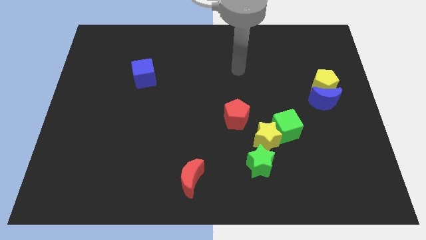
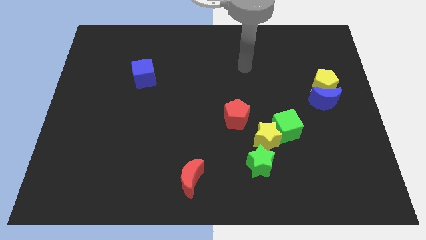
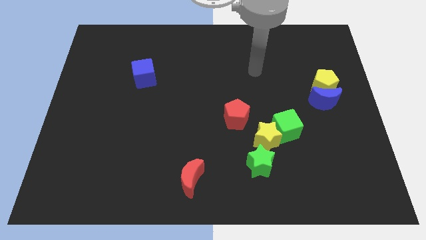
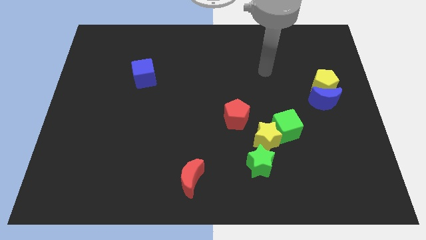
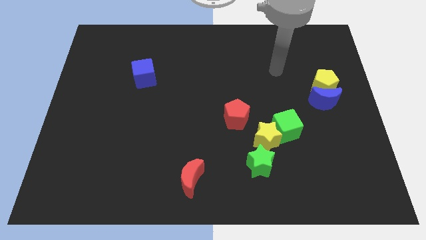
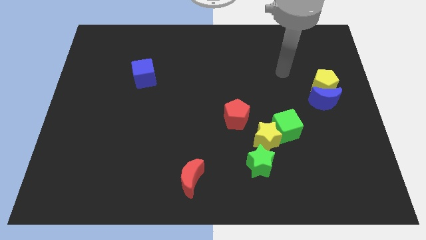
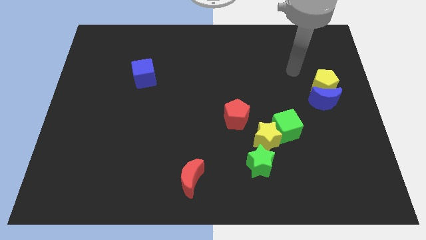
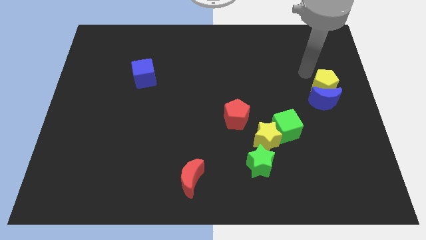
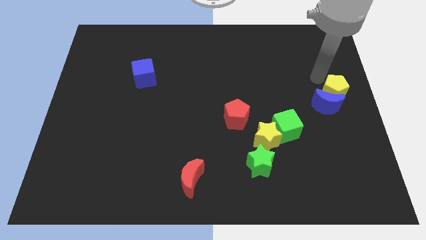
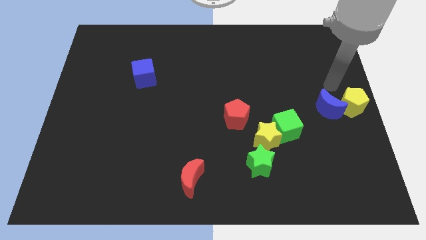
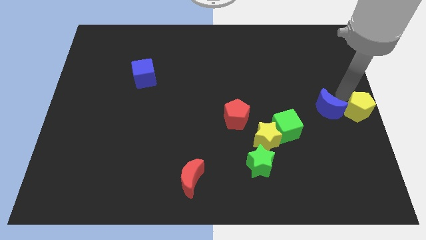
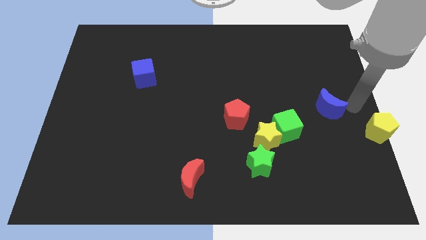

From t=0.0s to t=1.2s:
move the blue moon away from the yellow pentagon

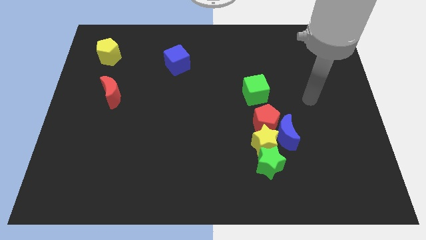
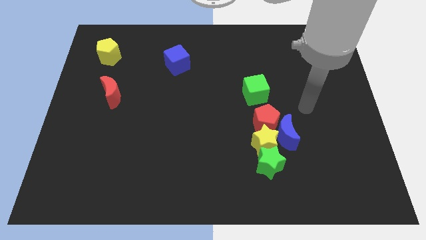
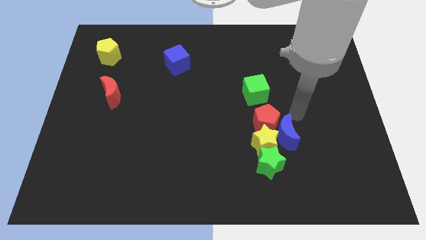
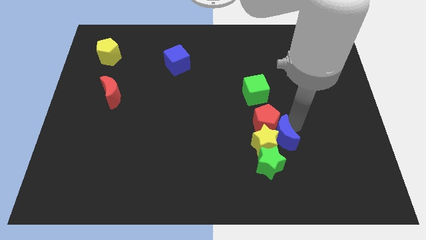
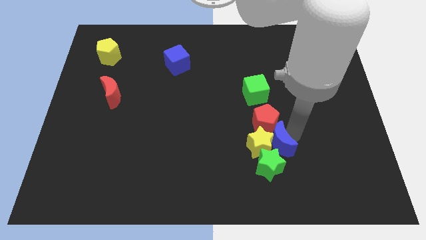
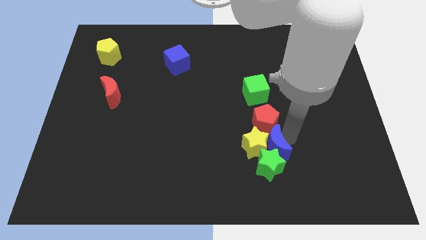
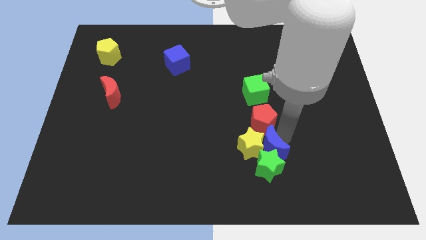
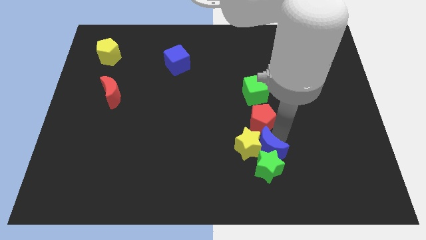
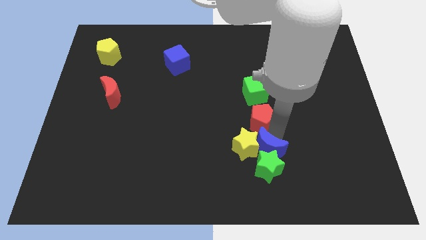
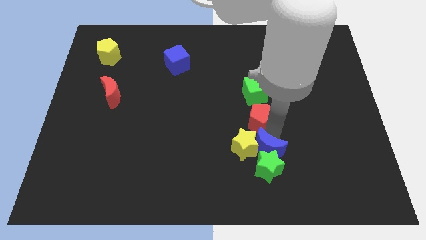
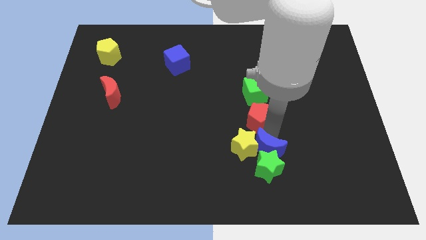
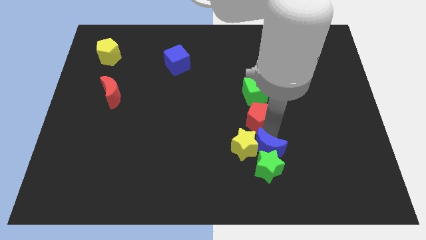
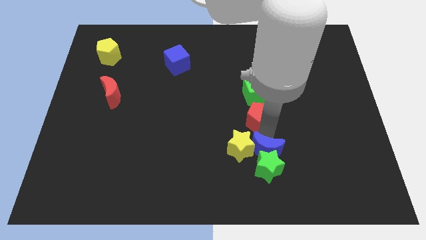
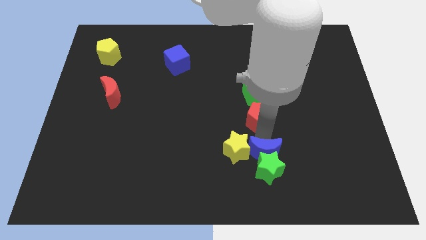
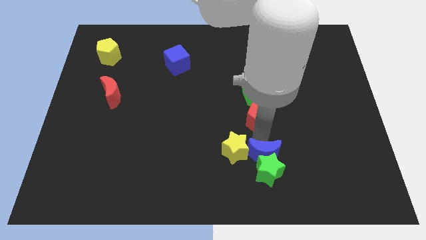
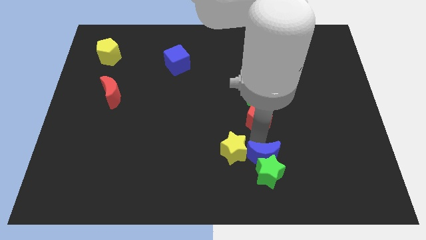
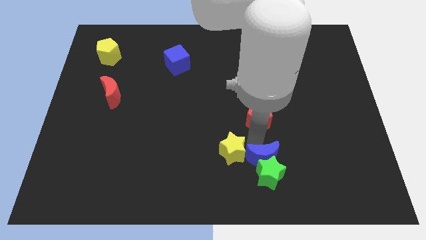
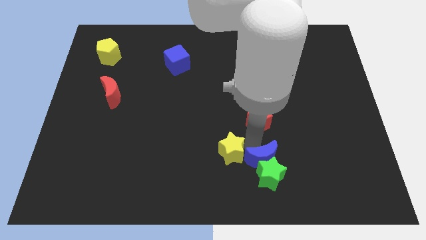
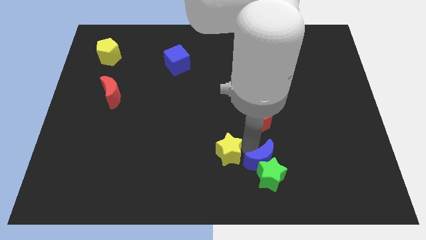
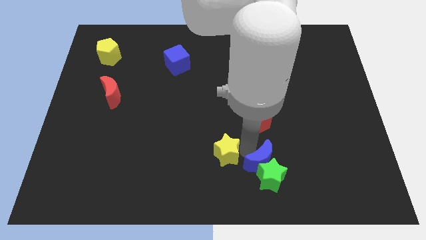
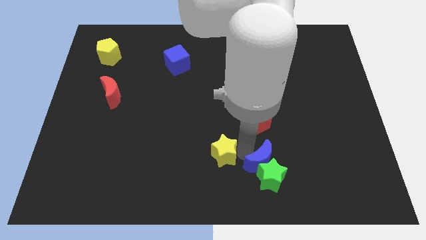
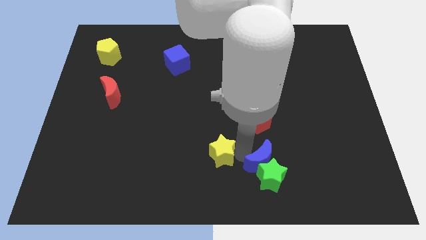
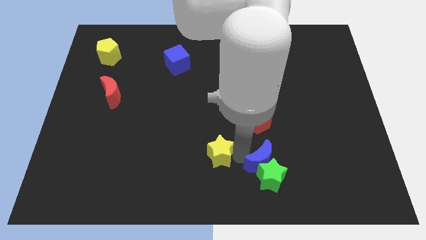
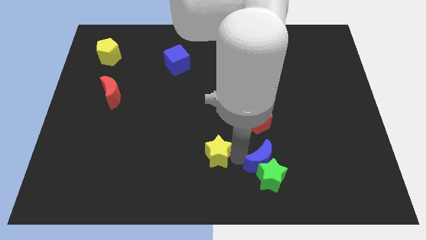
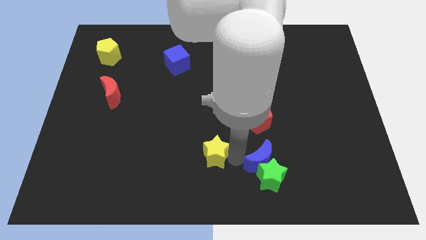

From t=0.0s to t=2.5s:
move the yellow star away from the clump

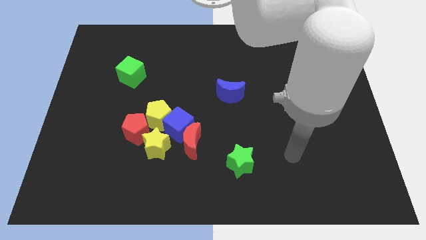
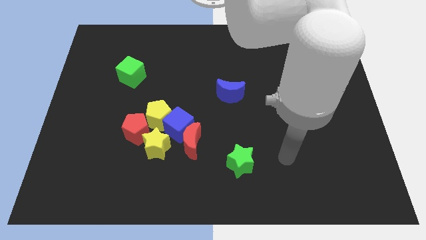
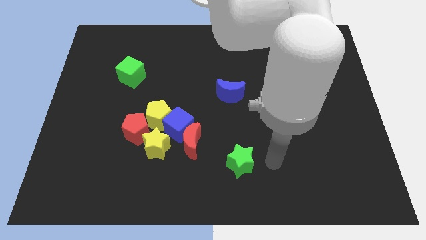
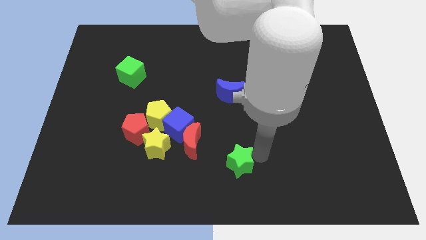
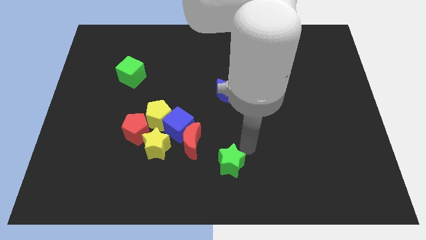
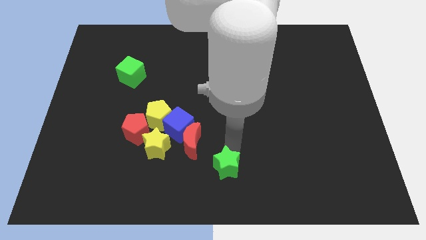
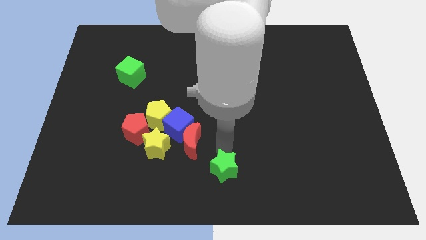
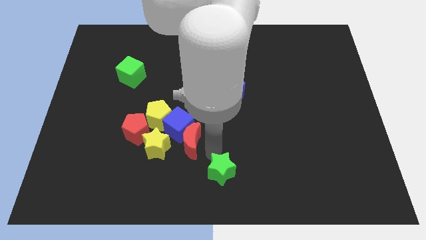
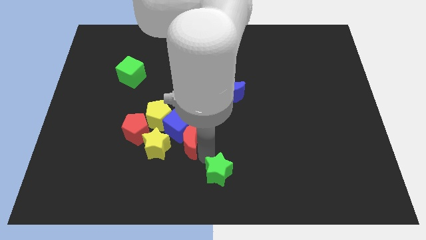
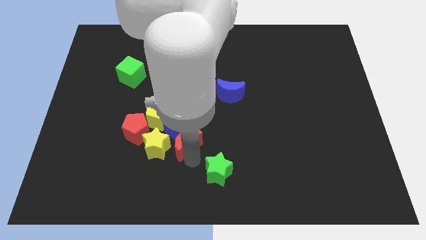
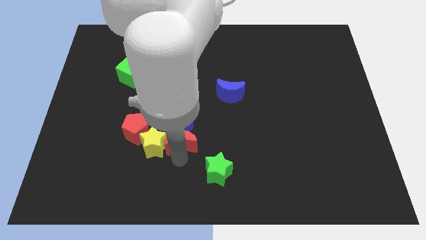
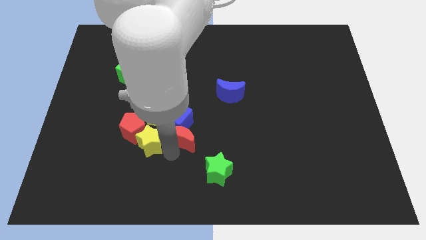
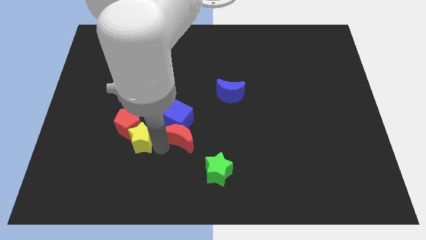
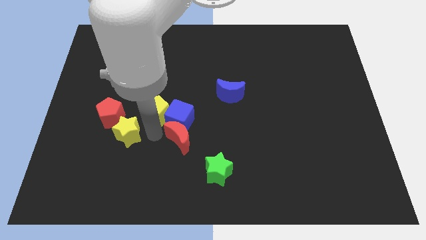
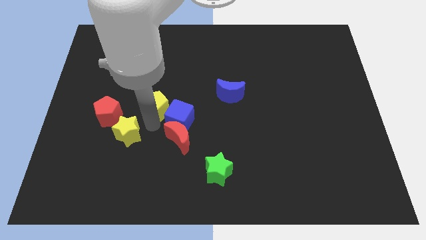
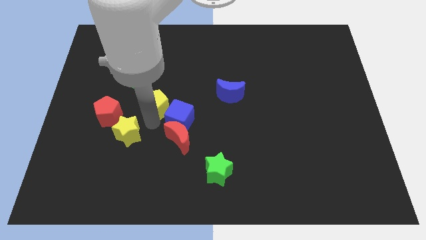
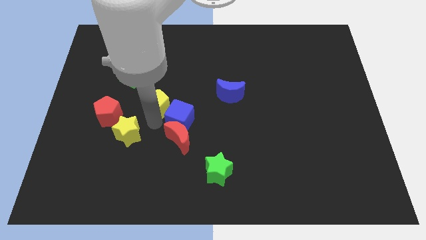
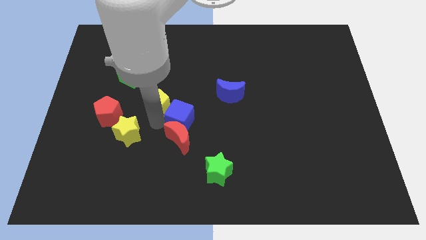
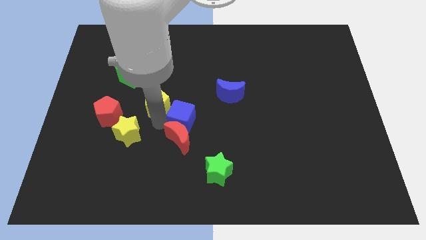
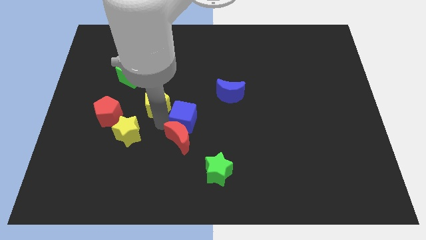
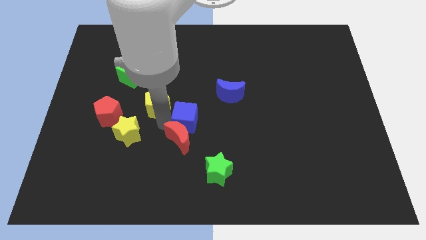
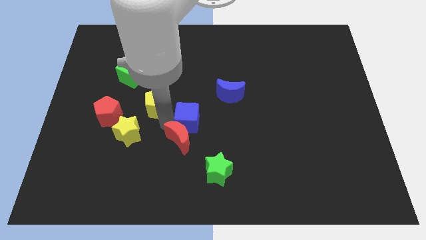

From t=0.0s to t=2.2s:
pull the blue cube apart from the group of blocks

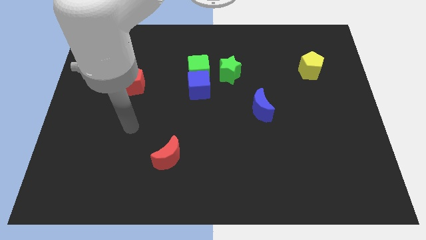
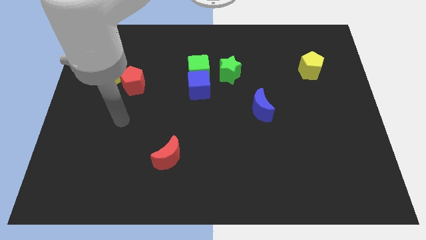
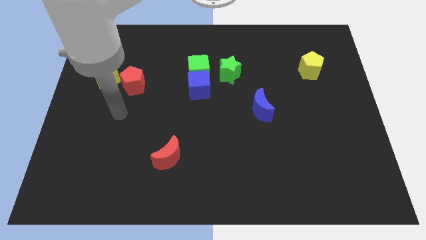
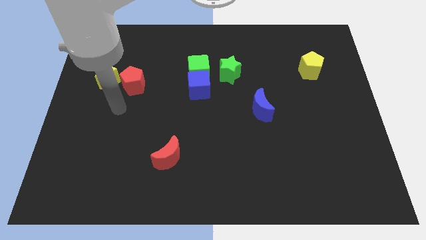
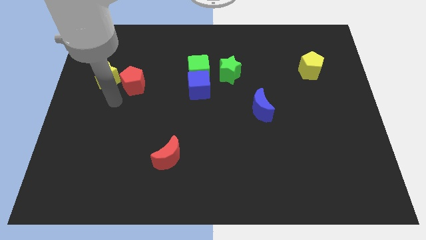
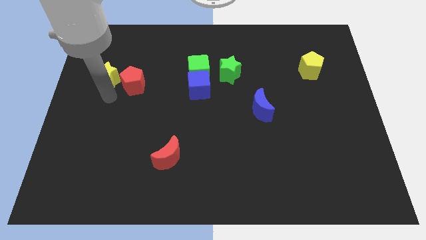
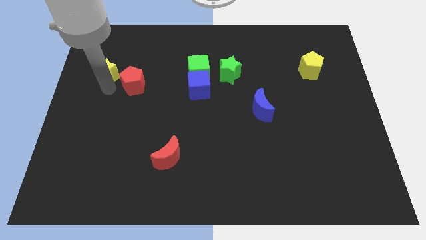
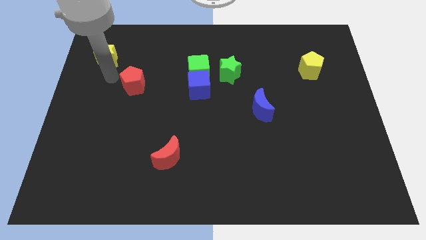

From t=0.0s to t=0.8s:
move the red pentagon away from the yellow star

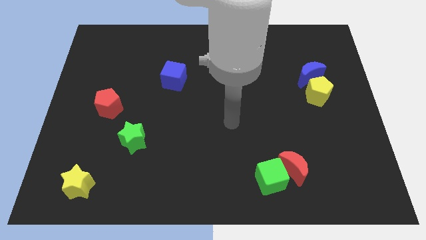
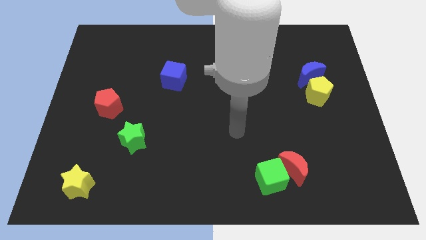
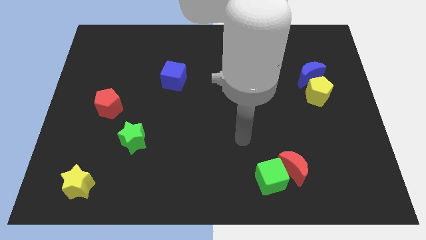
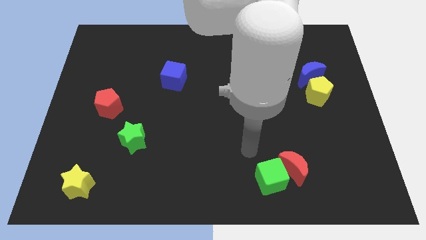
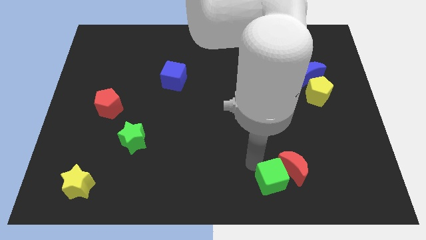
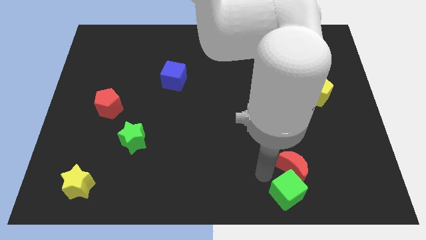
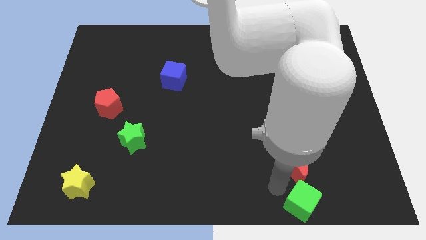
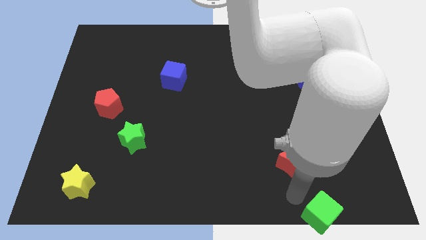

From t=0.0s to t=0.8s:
separate the red moon from the green cube

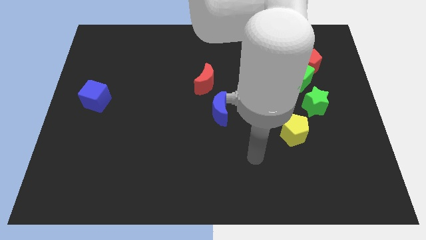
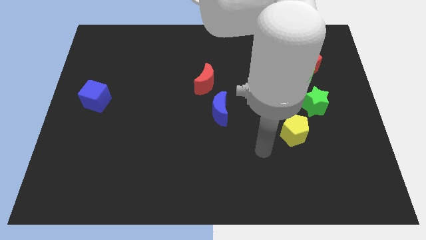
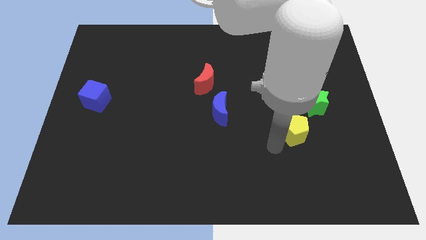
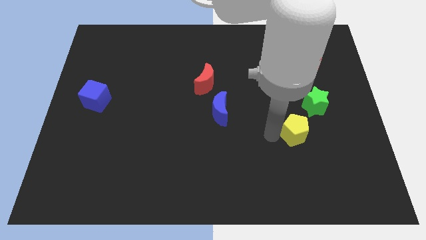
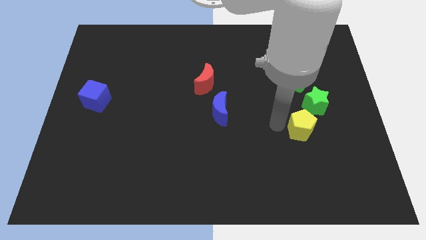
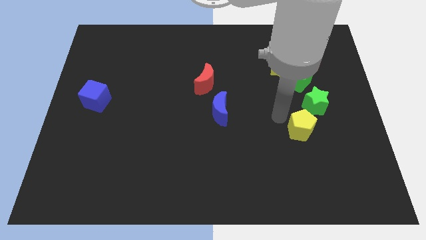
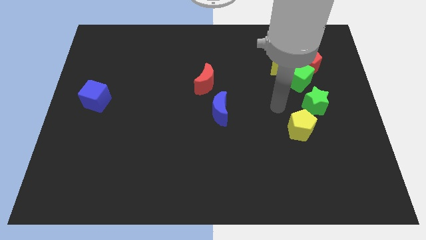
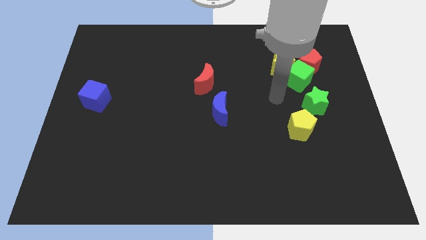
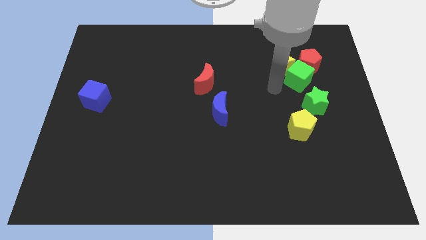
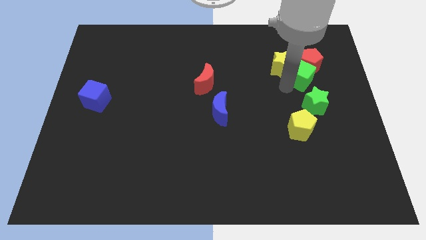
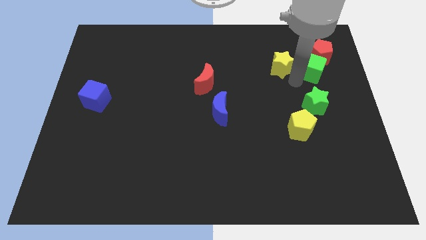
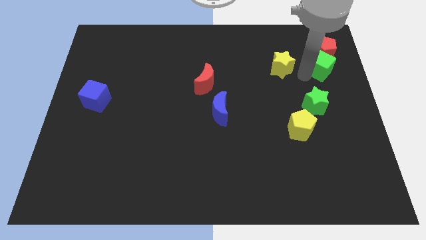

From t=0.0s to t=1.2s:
separate the yellow star from the green cube and red pentagon

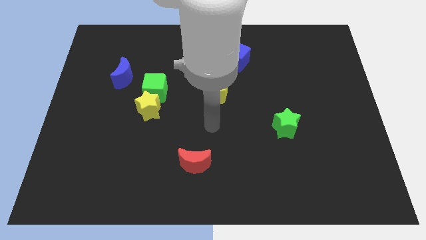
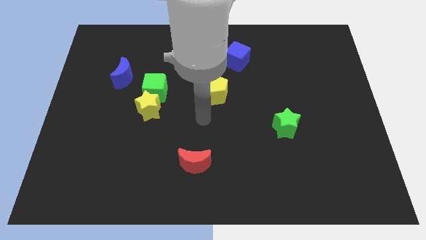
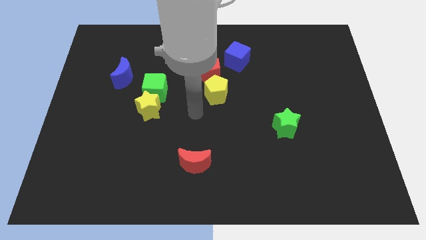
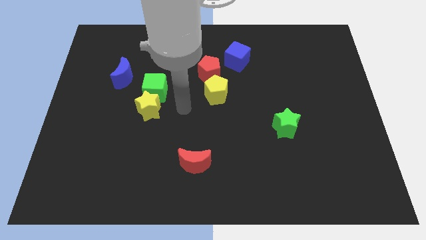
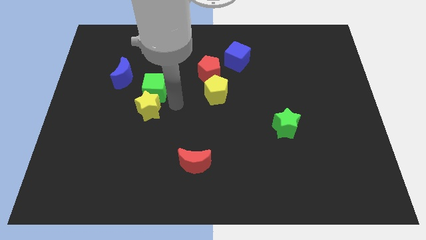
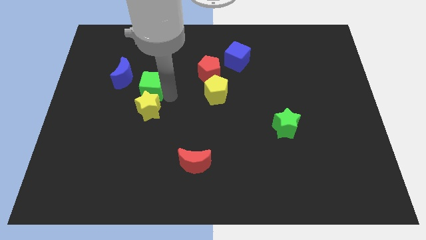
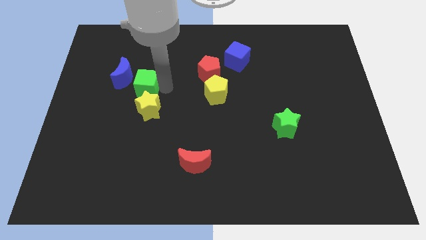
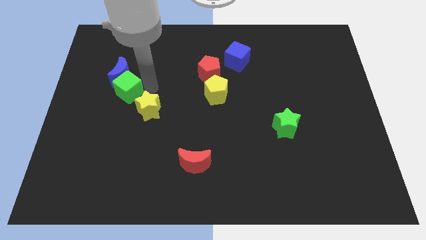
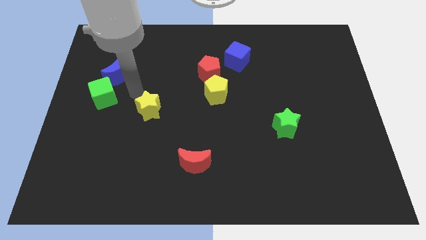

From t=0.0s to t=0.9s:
move the yellow star away from the green cube
